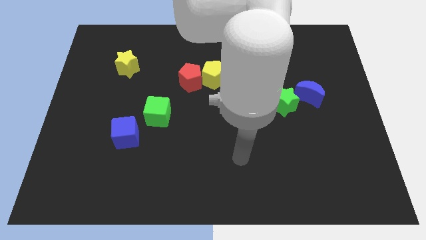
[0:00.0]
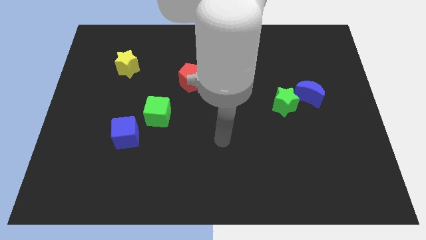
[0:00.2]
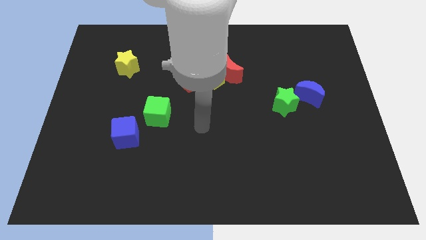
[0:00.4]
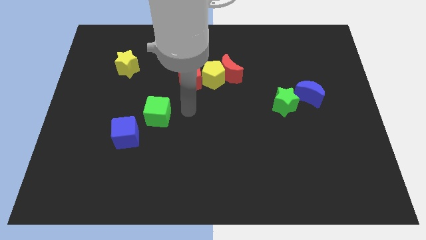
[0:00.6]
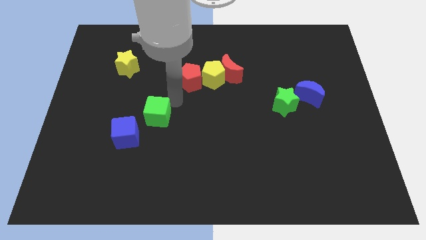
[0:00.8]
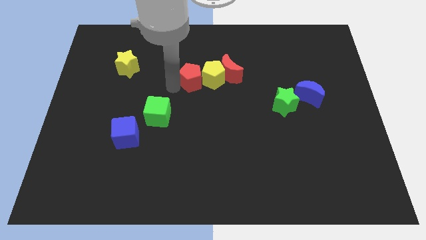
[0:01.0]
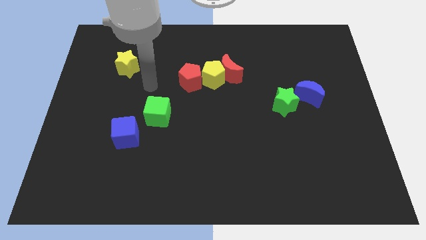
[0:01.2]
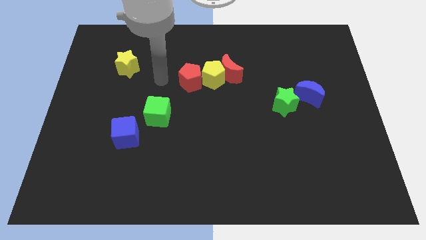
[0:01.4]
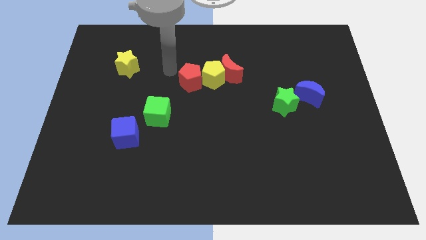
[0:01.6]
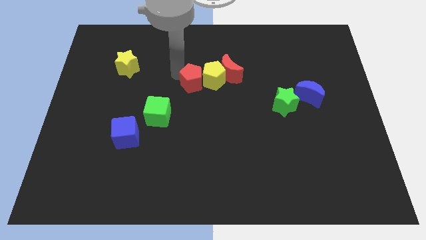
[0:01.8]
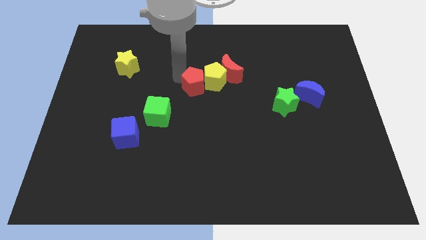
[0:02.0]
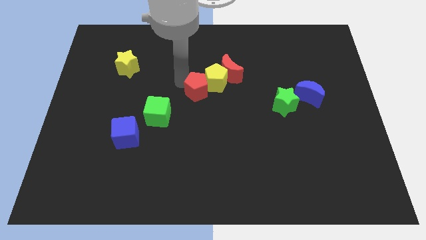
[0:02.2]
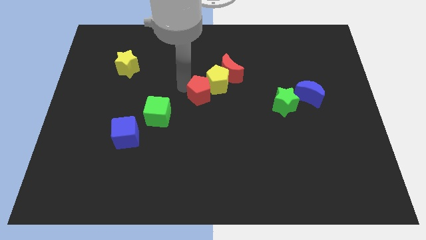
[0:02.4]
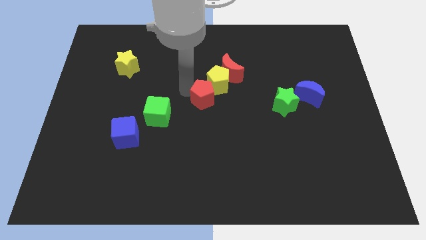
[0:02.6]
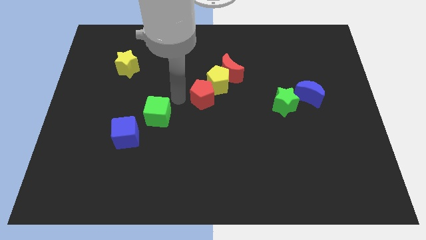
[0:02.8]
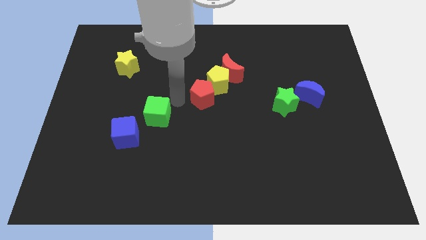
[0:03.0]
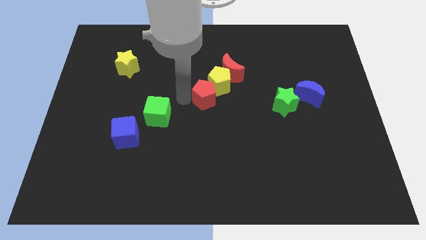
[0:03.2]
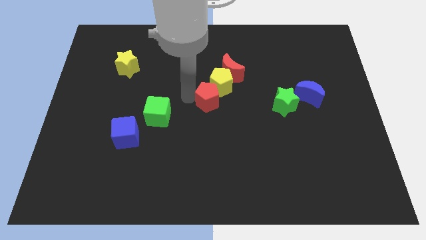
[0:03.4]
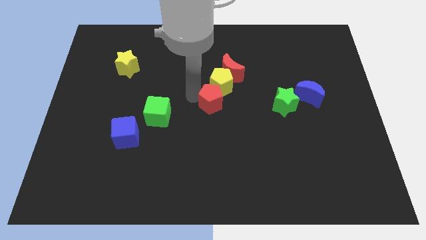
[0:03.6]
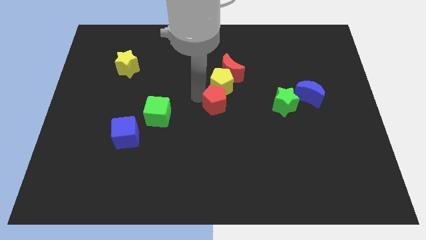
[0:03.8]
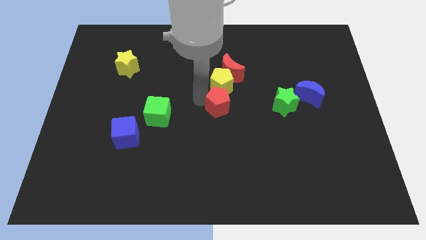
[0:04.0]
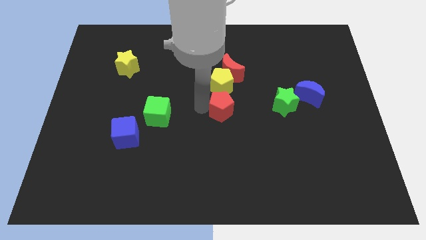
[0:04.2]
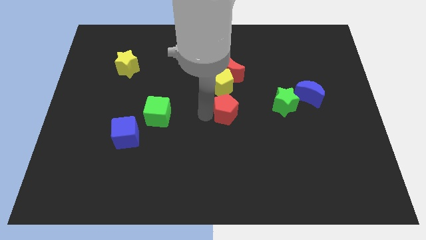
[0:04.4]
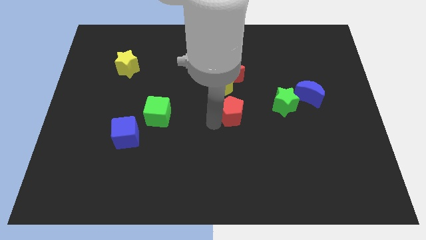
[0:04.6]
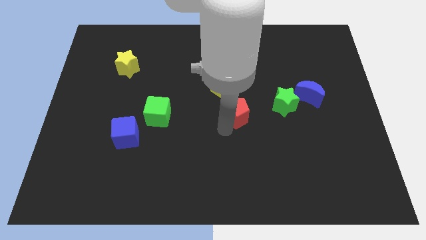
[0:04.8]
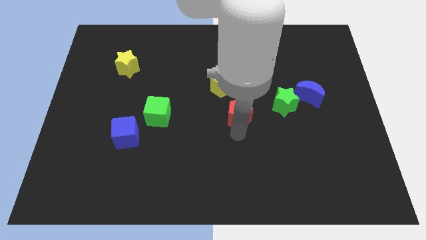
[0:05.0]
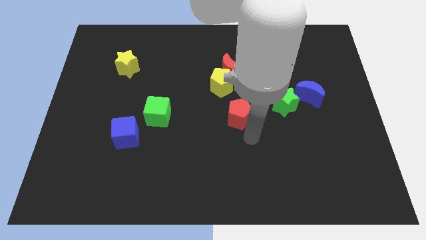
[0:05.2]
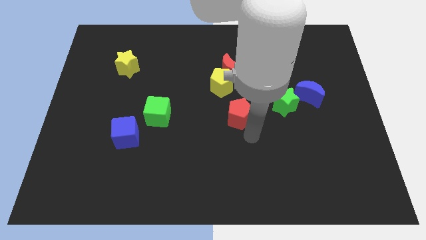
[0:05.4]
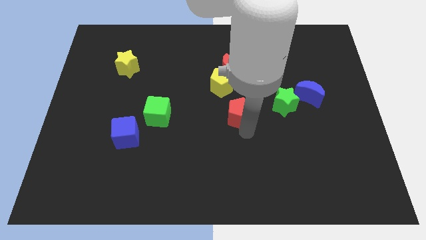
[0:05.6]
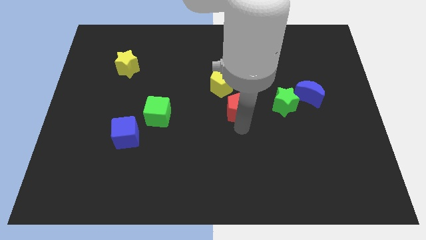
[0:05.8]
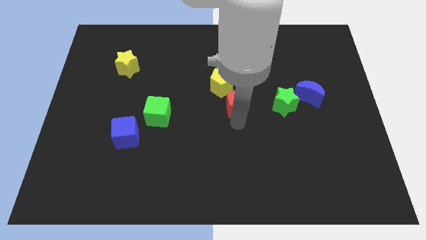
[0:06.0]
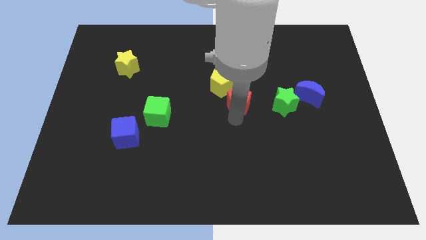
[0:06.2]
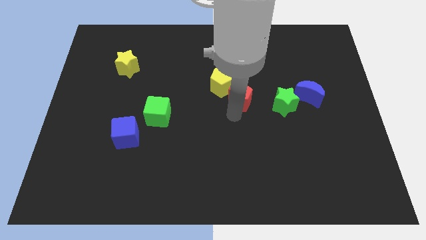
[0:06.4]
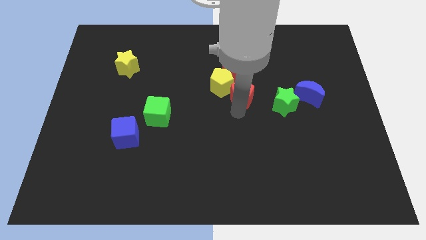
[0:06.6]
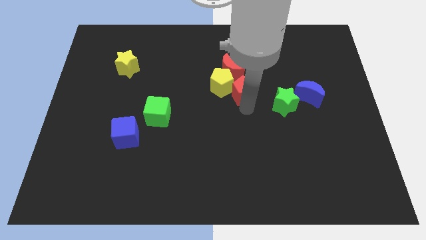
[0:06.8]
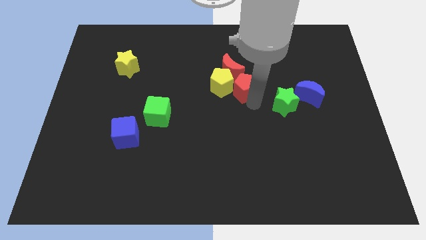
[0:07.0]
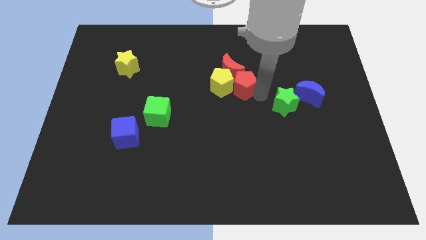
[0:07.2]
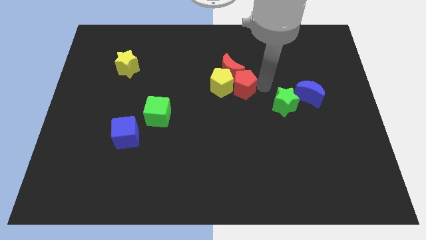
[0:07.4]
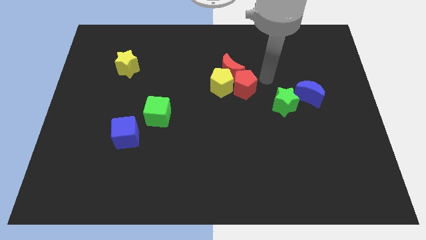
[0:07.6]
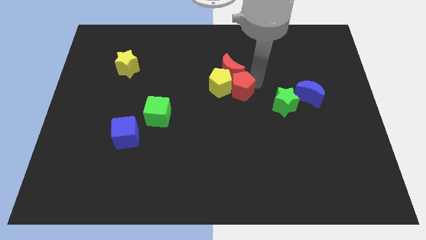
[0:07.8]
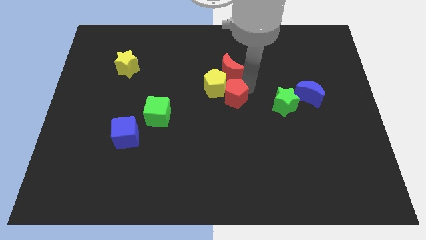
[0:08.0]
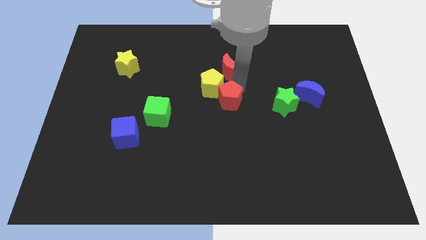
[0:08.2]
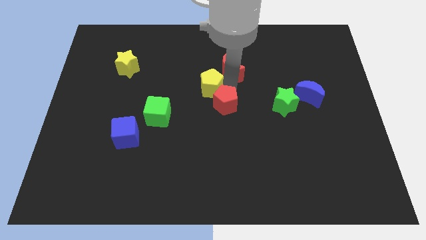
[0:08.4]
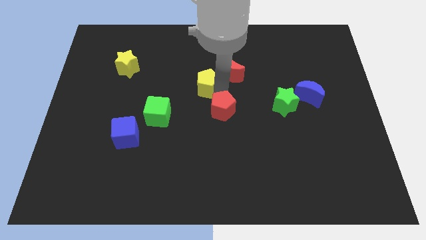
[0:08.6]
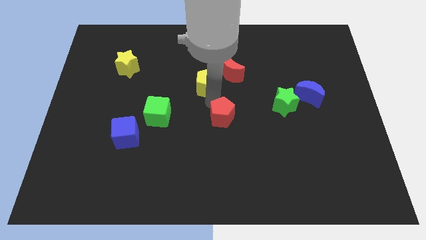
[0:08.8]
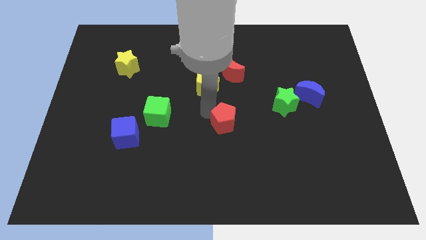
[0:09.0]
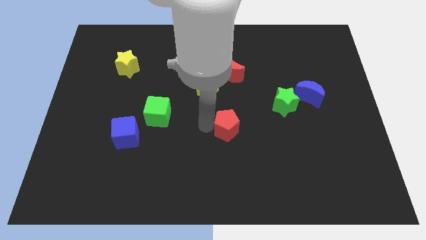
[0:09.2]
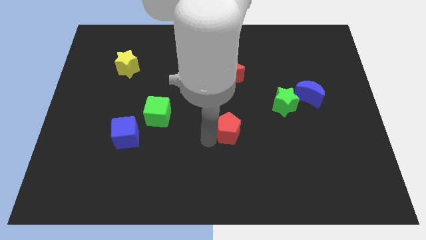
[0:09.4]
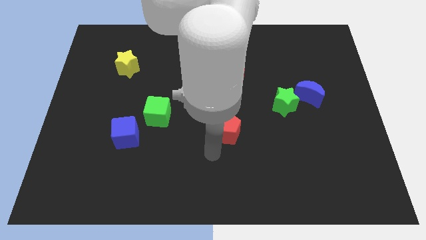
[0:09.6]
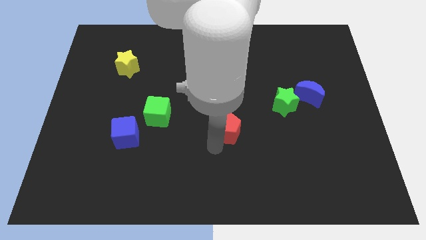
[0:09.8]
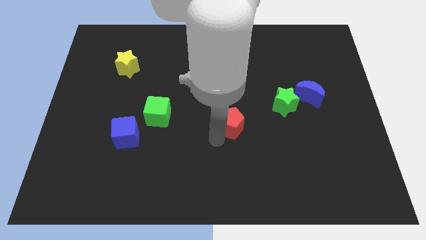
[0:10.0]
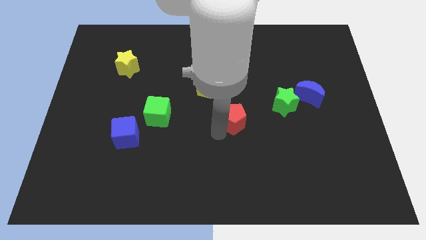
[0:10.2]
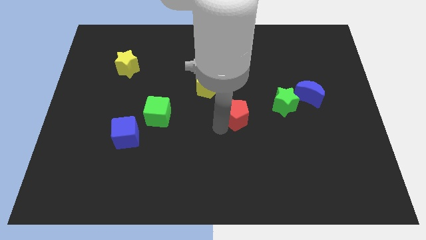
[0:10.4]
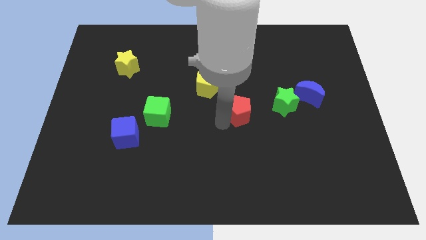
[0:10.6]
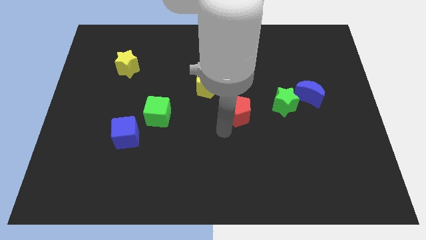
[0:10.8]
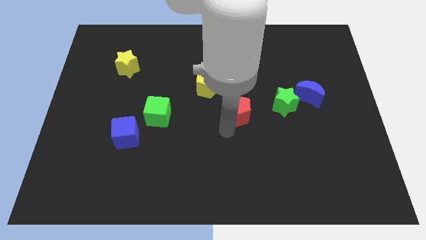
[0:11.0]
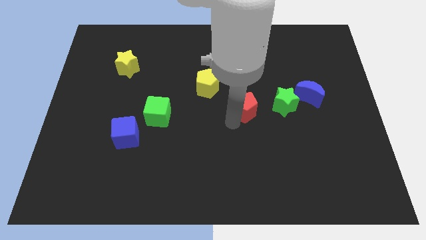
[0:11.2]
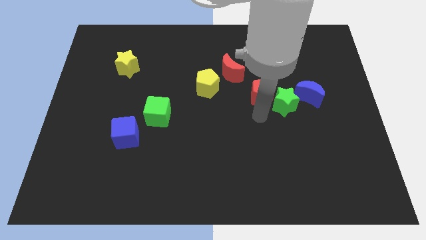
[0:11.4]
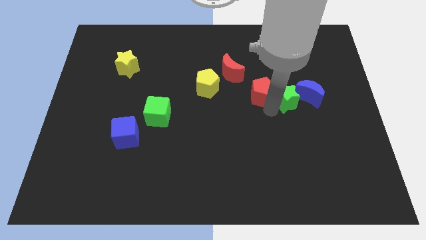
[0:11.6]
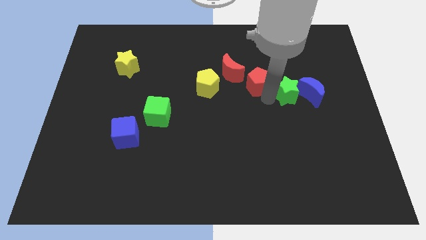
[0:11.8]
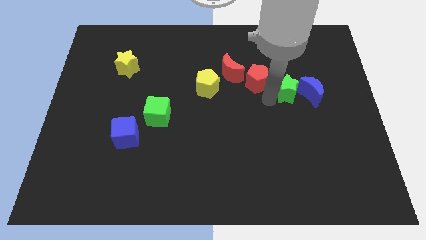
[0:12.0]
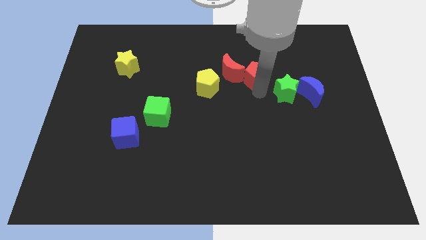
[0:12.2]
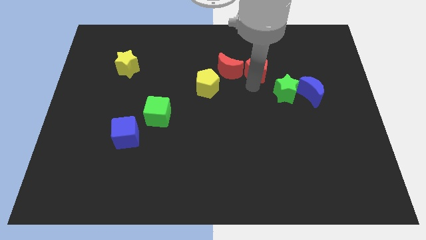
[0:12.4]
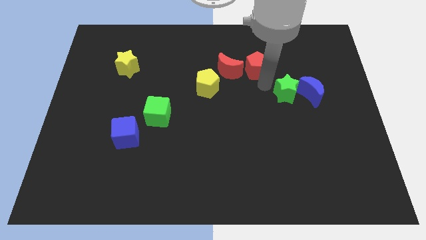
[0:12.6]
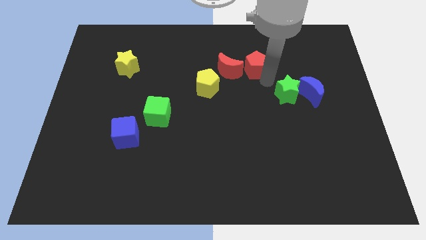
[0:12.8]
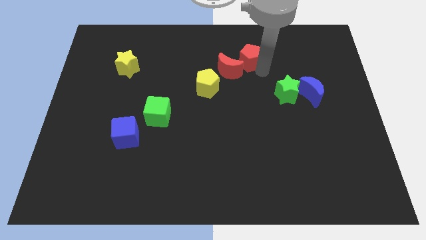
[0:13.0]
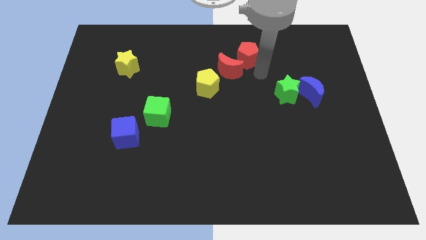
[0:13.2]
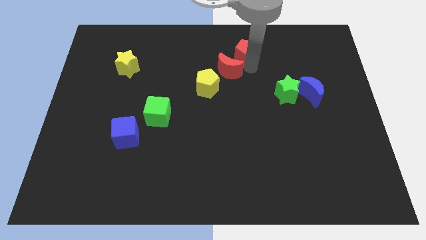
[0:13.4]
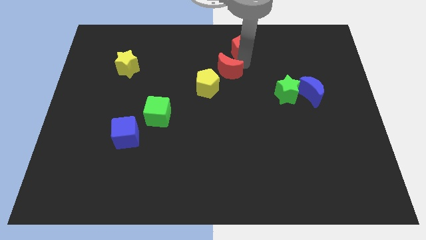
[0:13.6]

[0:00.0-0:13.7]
put the red pentagon to the towards your base
